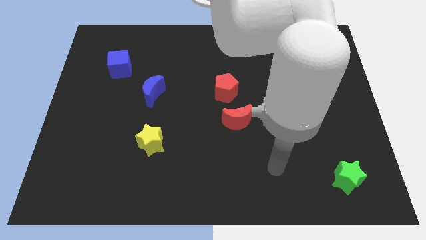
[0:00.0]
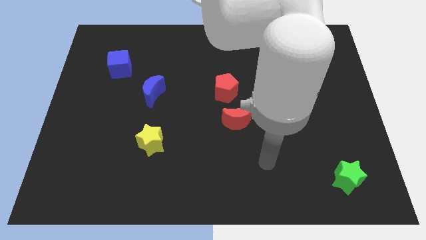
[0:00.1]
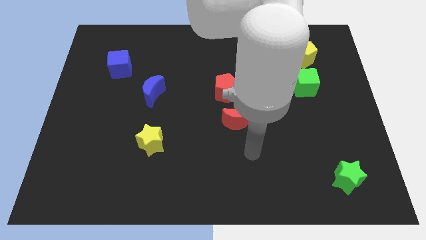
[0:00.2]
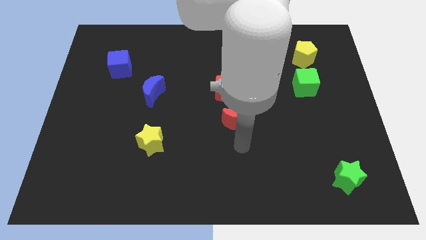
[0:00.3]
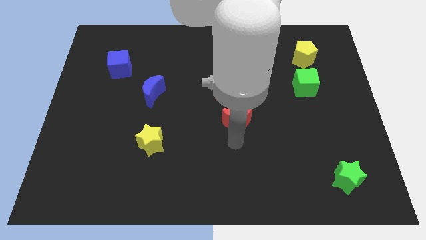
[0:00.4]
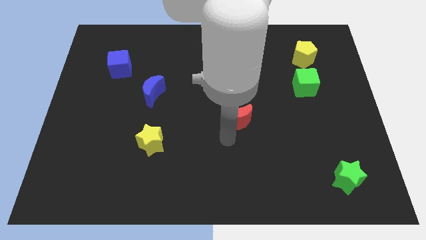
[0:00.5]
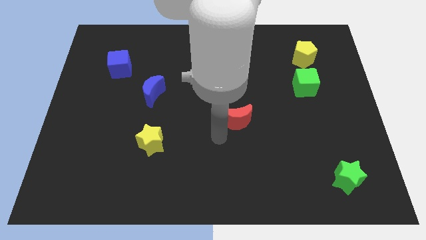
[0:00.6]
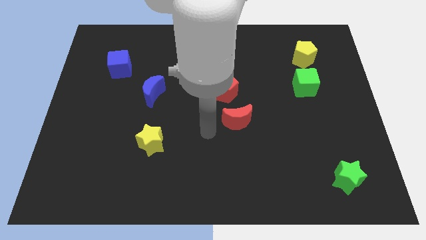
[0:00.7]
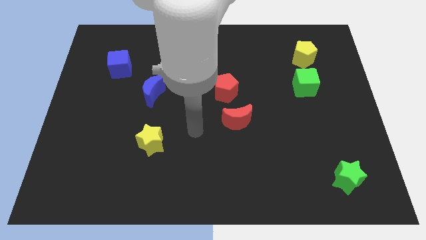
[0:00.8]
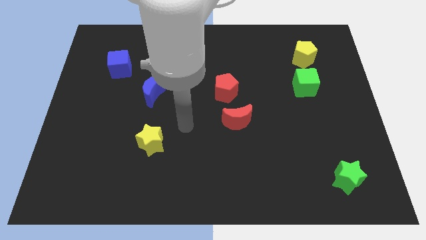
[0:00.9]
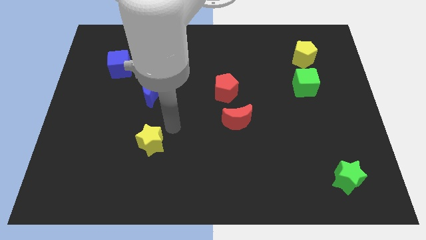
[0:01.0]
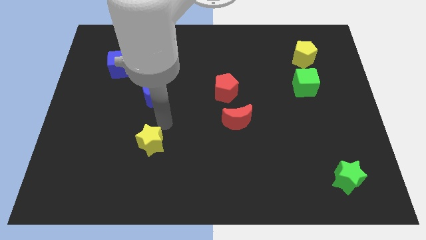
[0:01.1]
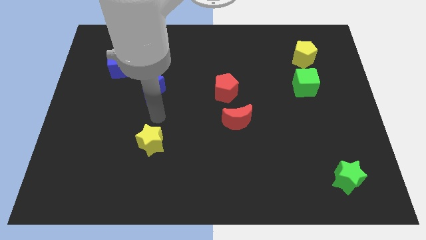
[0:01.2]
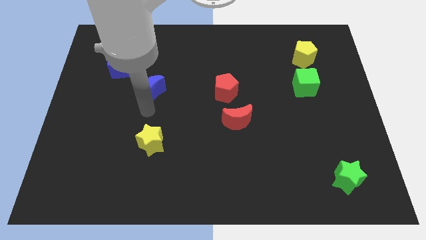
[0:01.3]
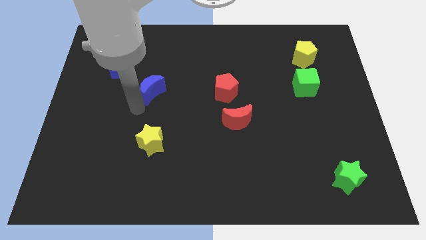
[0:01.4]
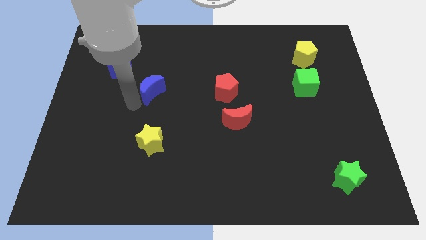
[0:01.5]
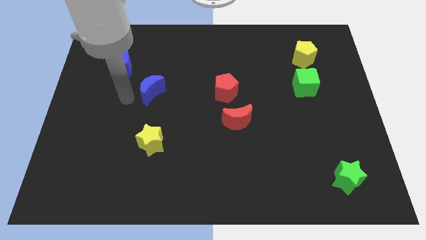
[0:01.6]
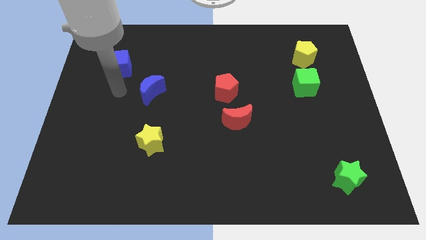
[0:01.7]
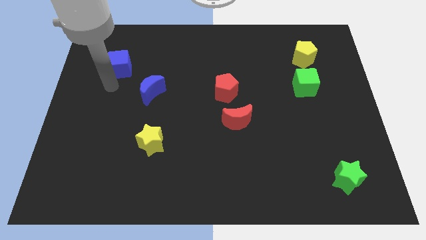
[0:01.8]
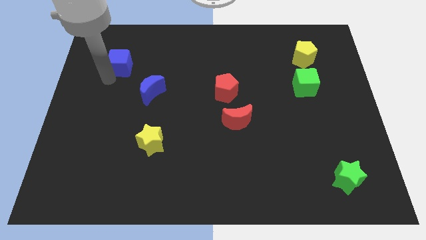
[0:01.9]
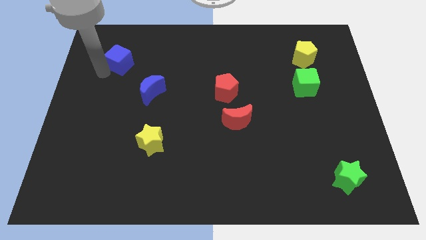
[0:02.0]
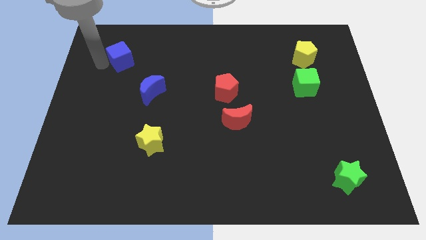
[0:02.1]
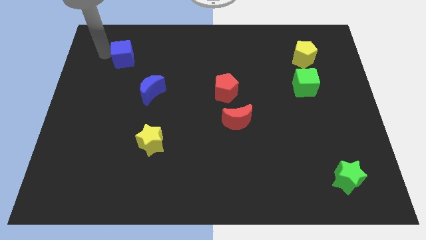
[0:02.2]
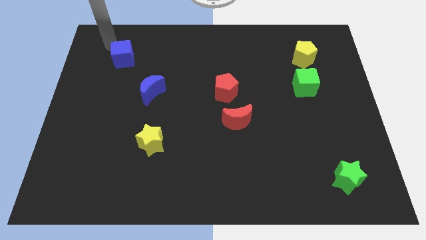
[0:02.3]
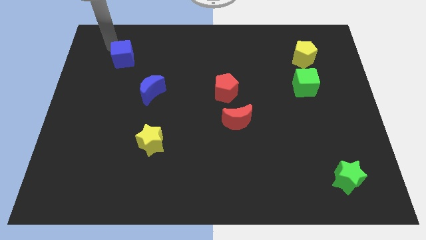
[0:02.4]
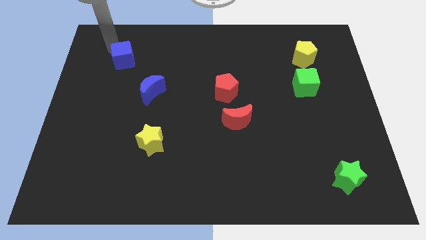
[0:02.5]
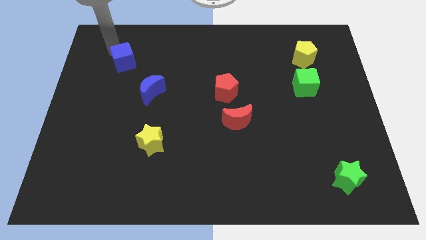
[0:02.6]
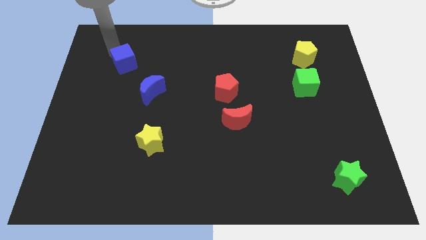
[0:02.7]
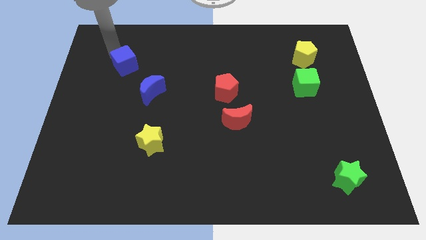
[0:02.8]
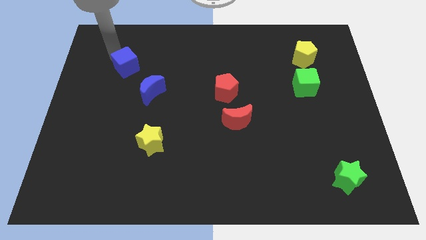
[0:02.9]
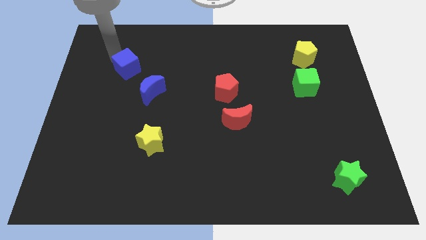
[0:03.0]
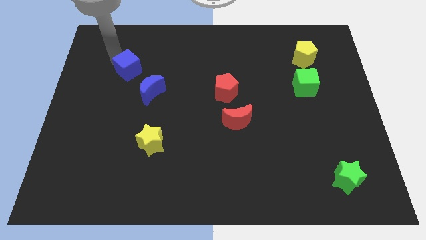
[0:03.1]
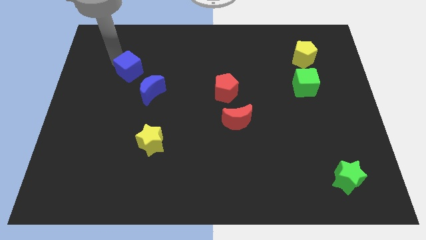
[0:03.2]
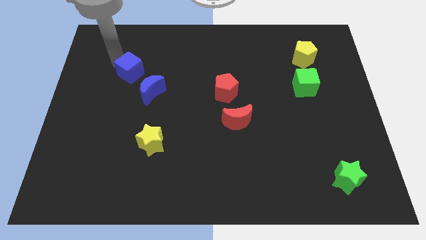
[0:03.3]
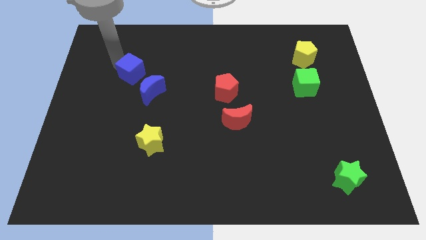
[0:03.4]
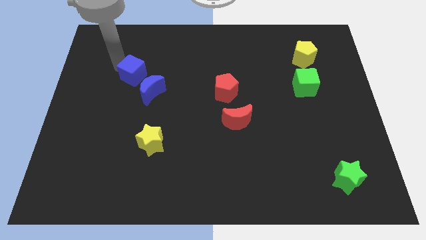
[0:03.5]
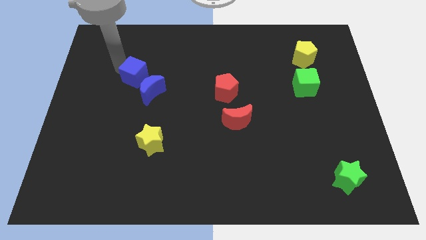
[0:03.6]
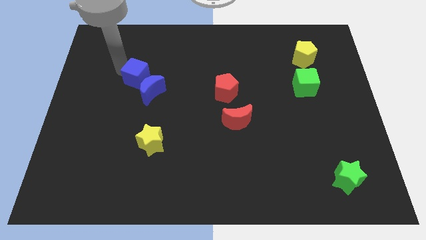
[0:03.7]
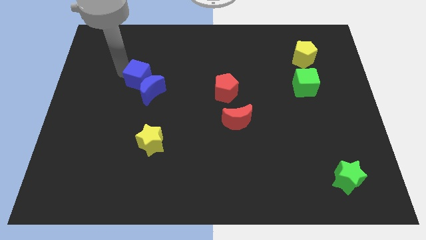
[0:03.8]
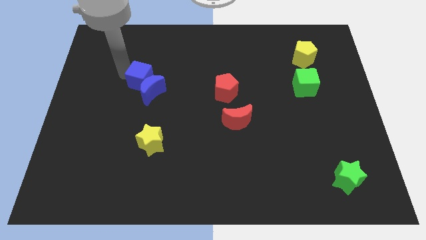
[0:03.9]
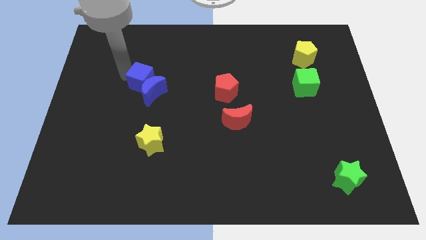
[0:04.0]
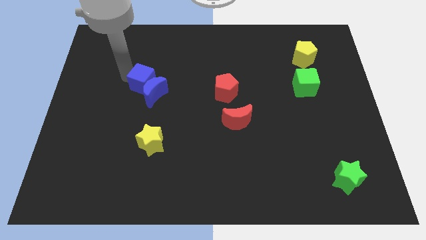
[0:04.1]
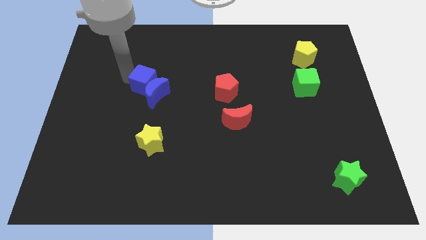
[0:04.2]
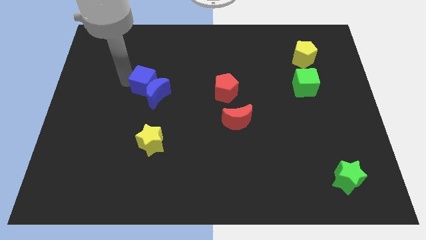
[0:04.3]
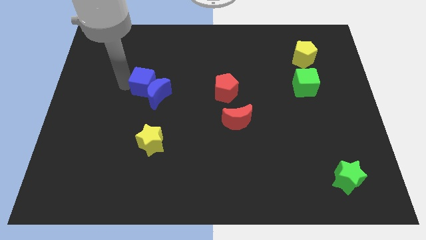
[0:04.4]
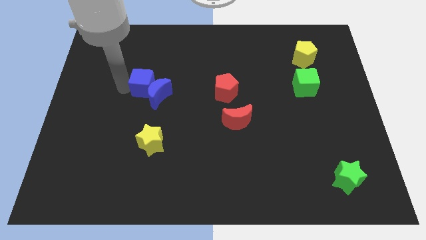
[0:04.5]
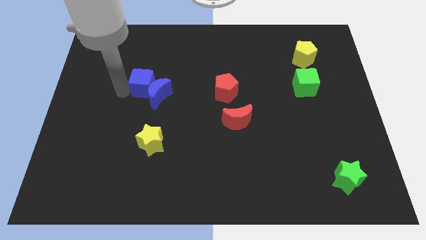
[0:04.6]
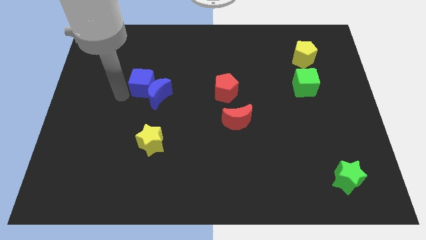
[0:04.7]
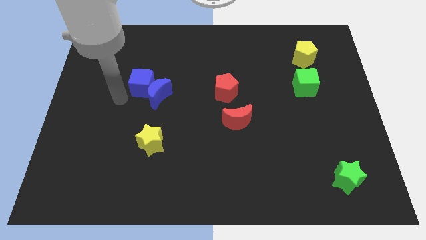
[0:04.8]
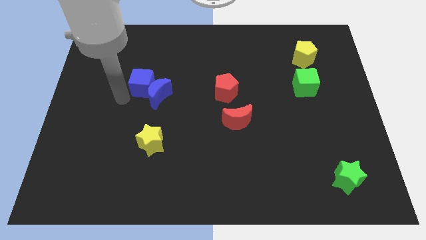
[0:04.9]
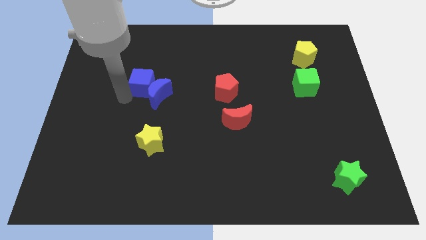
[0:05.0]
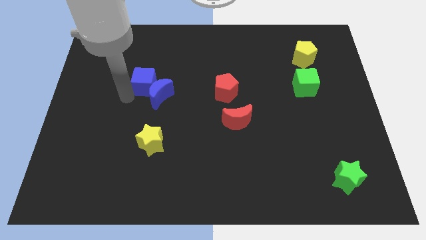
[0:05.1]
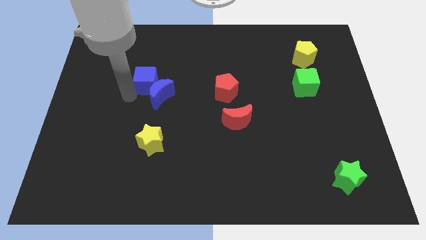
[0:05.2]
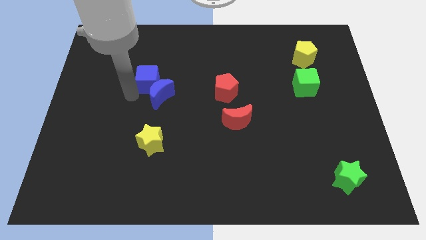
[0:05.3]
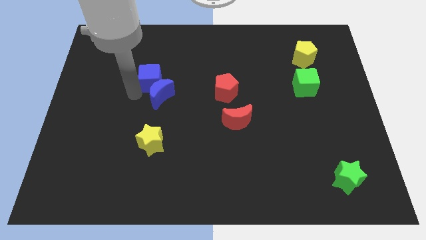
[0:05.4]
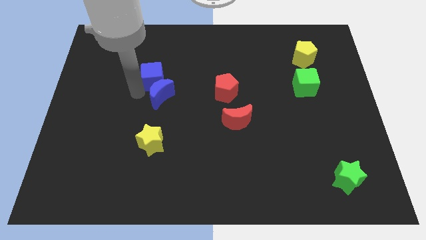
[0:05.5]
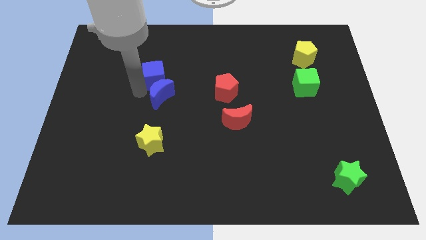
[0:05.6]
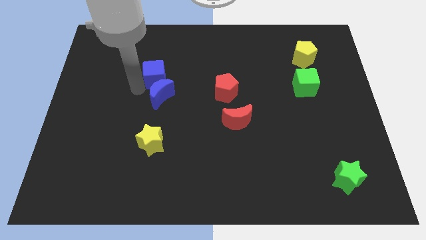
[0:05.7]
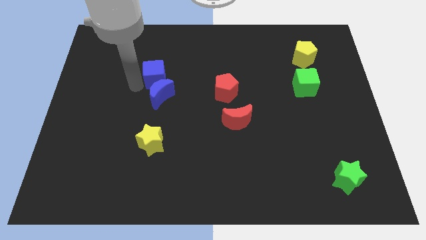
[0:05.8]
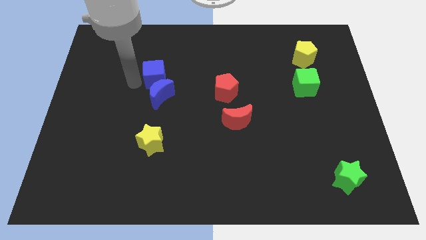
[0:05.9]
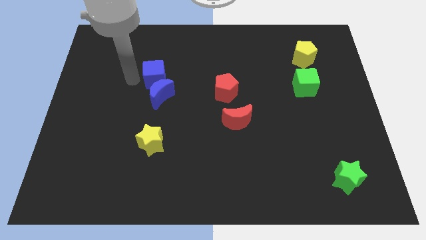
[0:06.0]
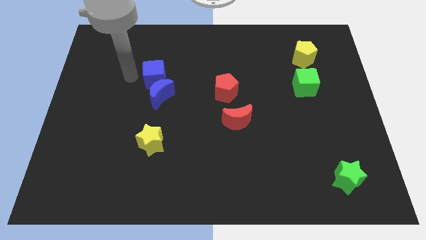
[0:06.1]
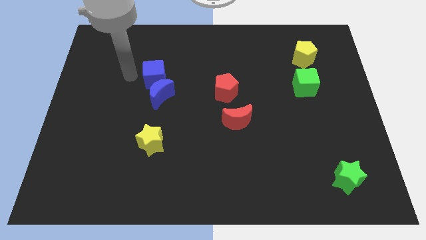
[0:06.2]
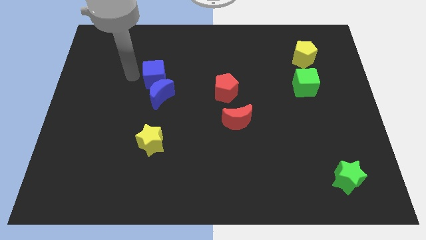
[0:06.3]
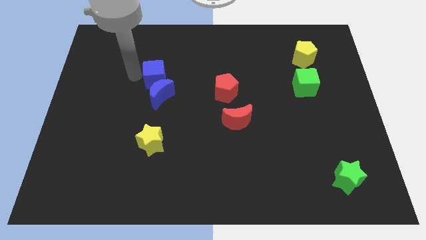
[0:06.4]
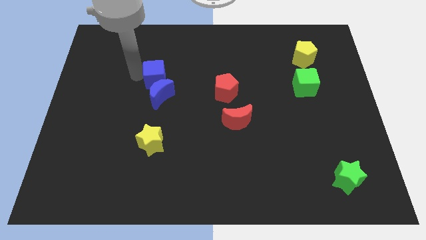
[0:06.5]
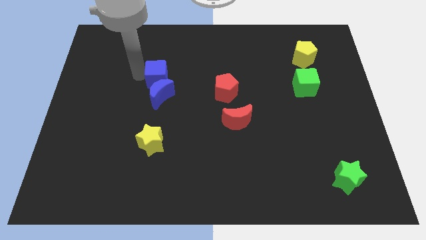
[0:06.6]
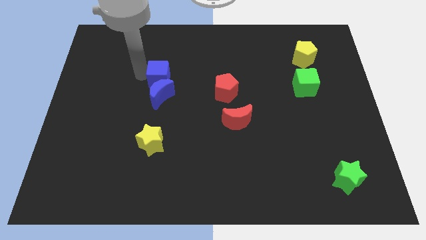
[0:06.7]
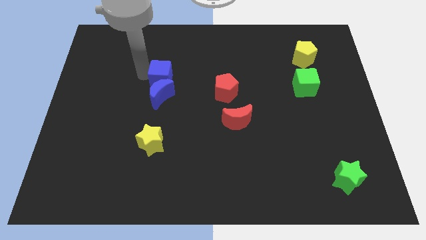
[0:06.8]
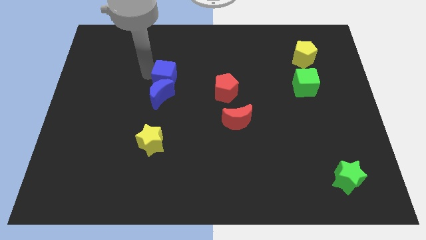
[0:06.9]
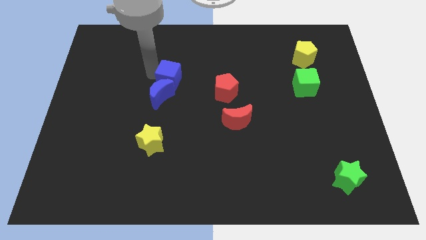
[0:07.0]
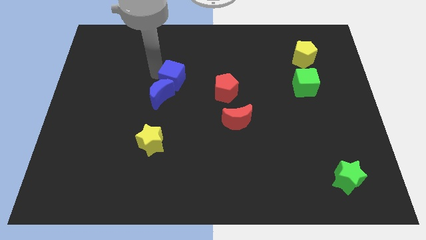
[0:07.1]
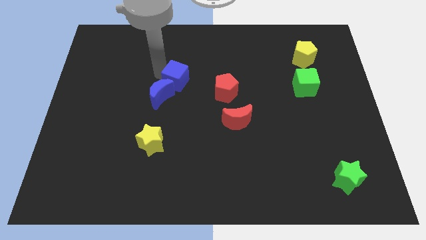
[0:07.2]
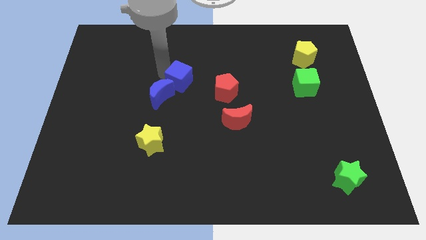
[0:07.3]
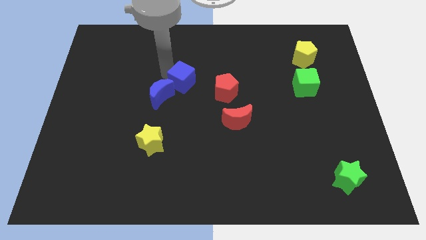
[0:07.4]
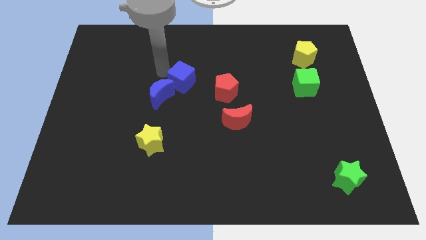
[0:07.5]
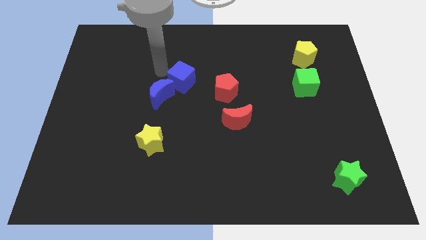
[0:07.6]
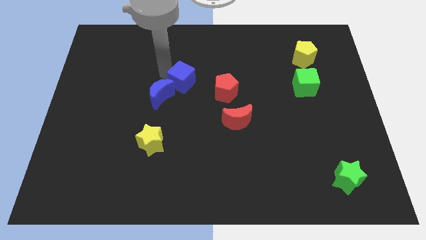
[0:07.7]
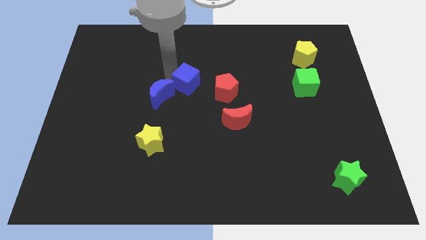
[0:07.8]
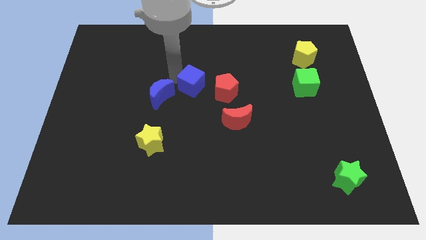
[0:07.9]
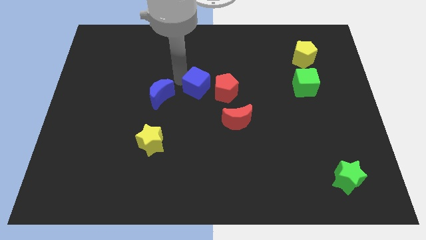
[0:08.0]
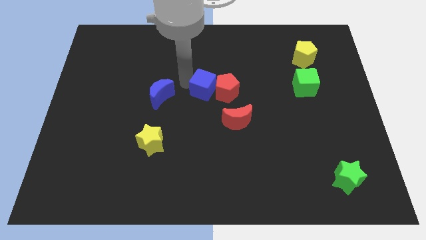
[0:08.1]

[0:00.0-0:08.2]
put the blue cube close to the red pentagon
